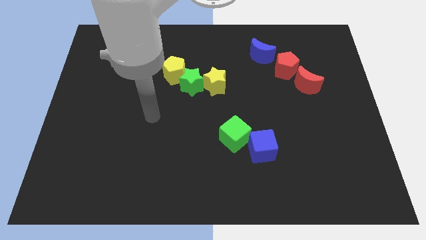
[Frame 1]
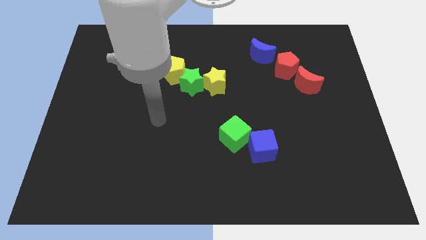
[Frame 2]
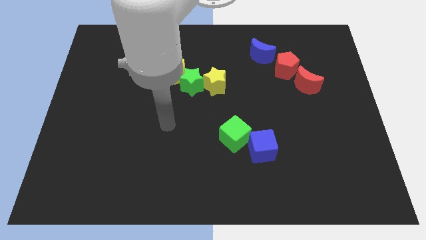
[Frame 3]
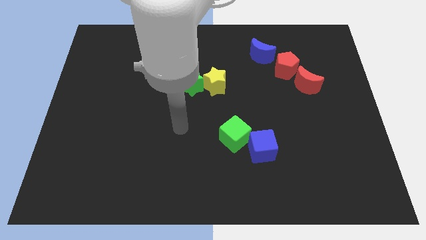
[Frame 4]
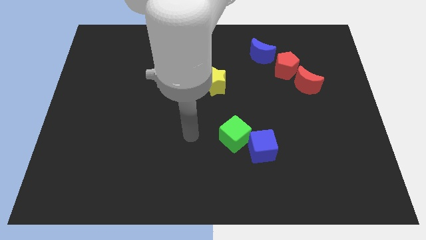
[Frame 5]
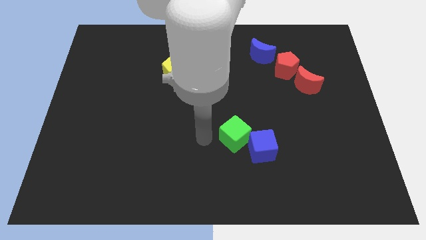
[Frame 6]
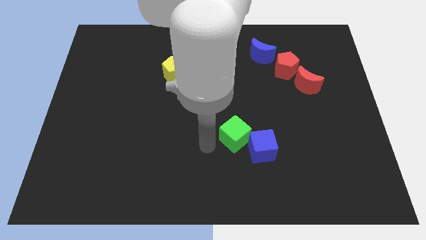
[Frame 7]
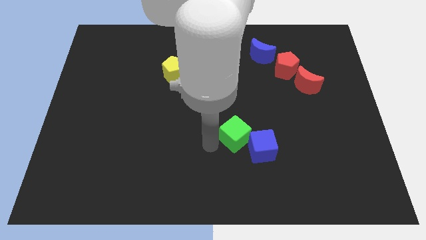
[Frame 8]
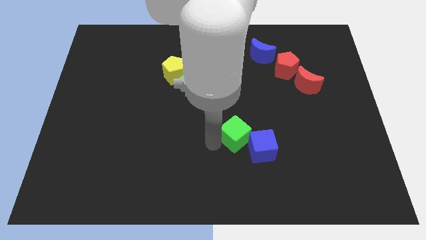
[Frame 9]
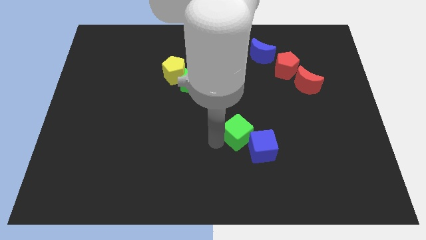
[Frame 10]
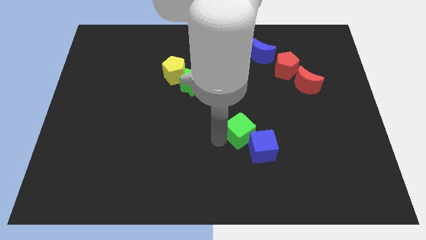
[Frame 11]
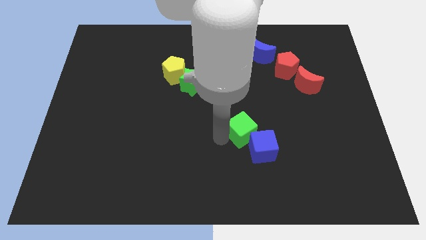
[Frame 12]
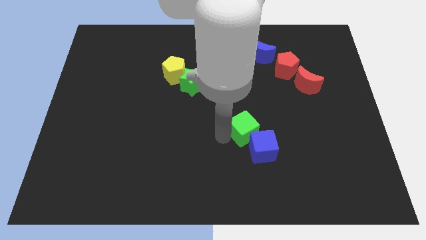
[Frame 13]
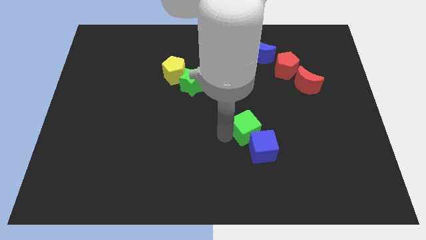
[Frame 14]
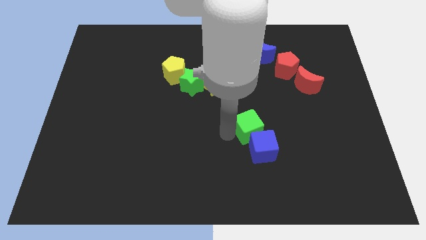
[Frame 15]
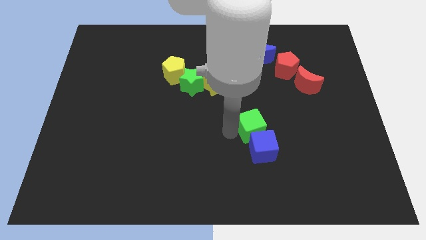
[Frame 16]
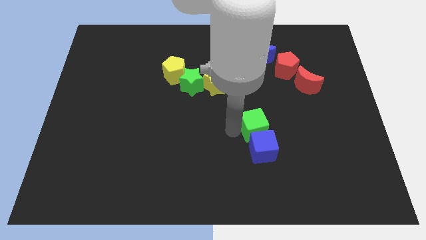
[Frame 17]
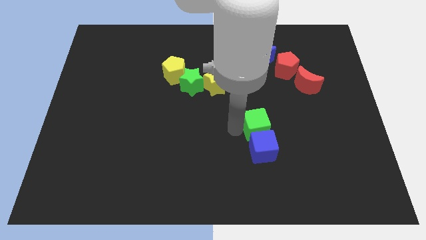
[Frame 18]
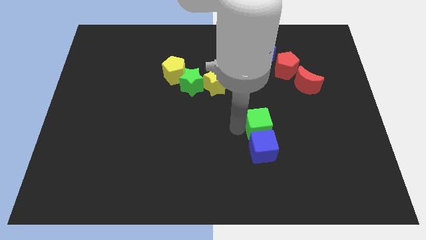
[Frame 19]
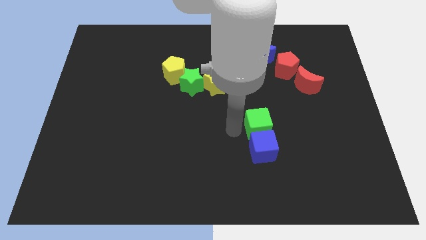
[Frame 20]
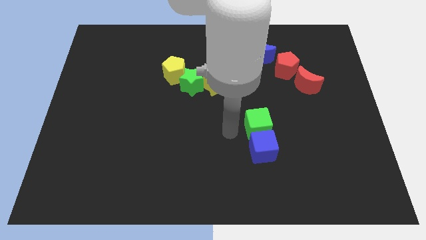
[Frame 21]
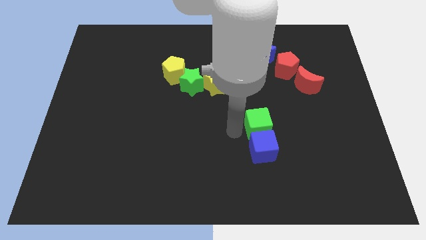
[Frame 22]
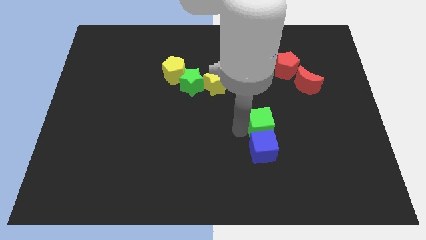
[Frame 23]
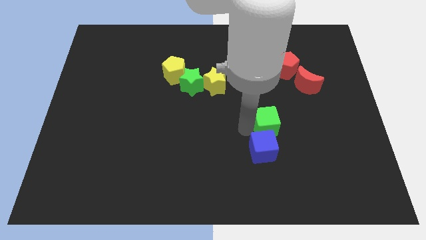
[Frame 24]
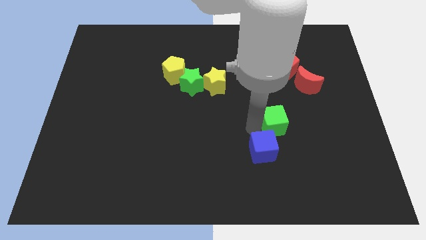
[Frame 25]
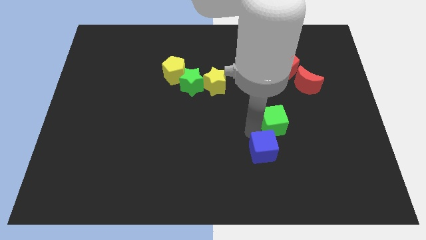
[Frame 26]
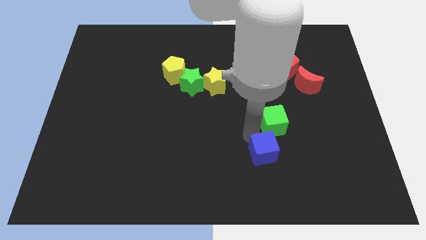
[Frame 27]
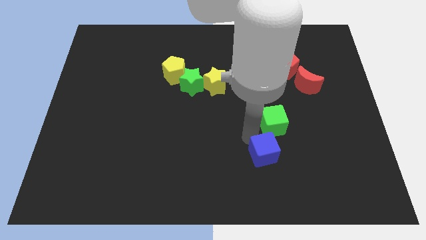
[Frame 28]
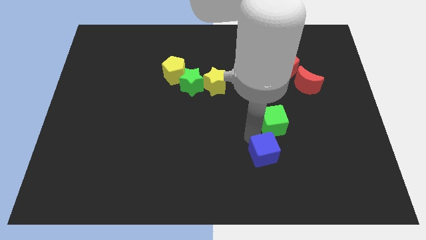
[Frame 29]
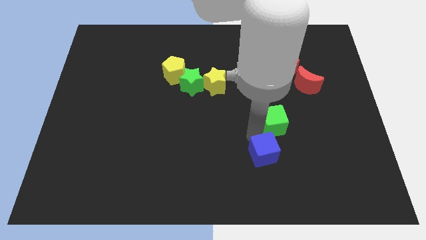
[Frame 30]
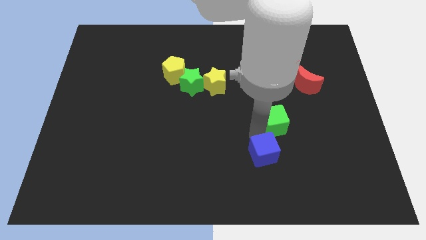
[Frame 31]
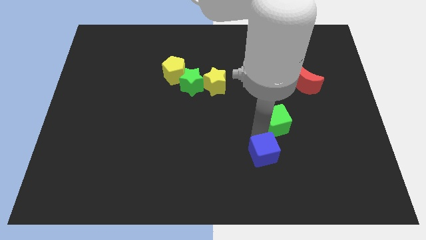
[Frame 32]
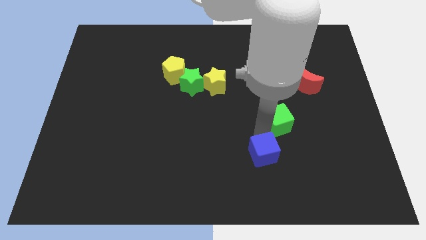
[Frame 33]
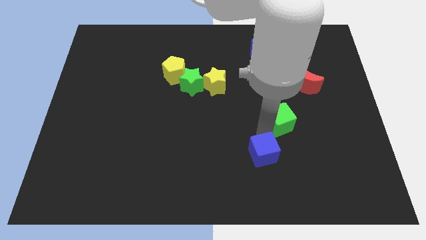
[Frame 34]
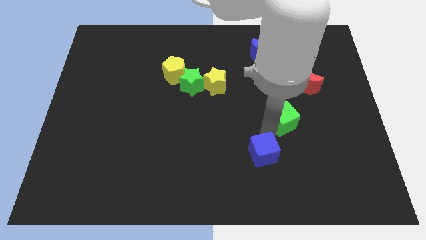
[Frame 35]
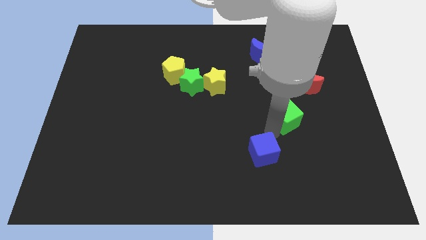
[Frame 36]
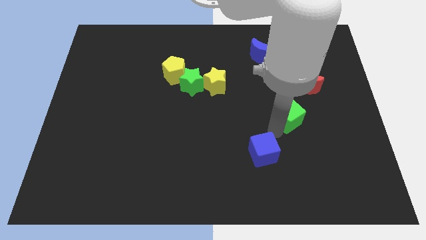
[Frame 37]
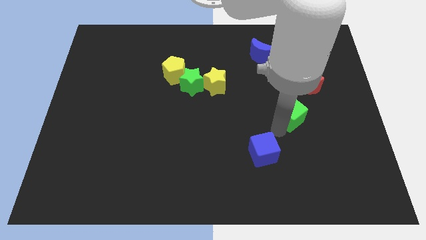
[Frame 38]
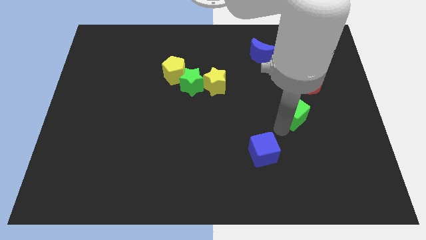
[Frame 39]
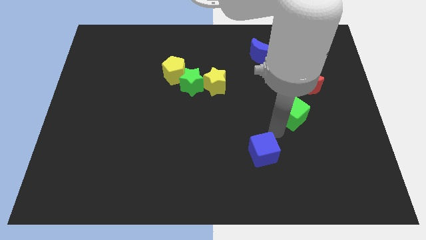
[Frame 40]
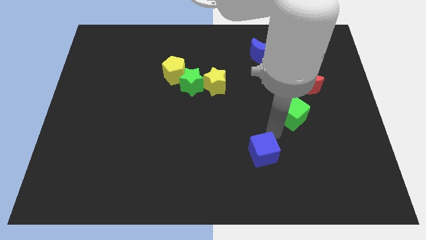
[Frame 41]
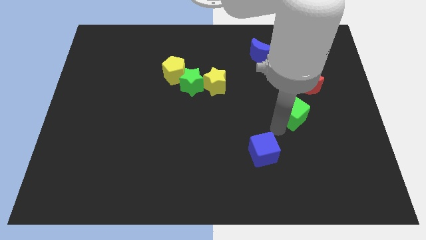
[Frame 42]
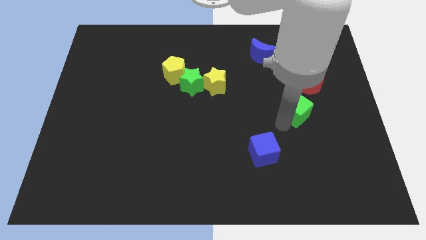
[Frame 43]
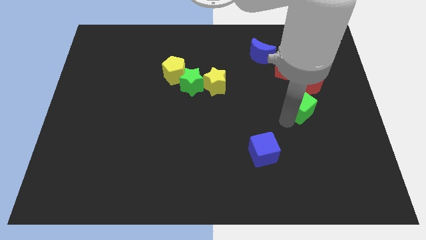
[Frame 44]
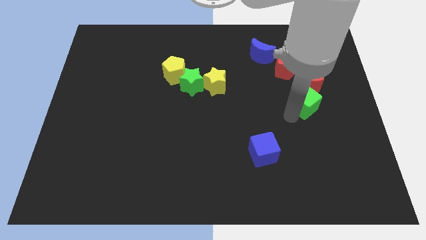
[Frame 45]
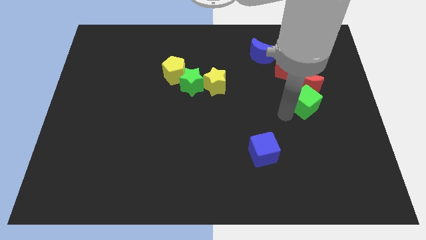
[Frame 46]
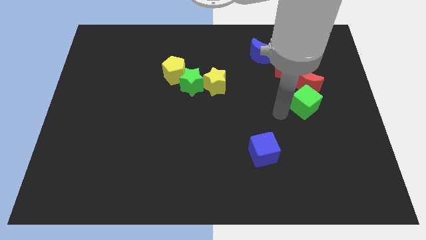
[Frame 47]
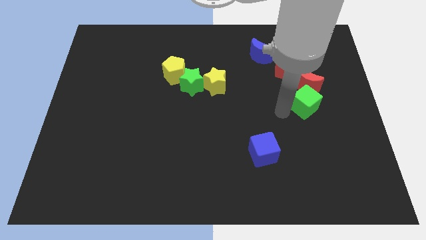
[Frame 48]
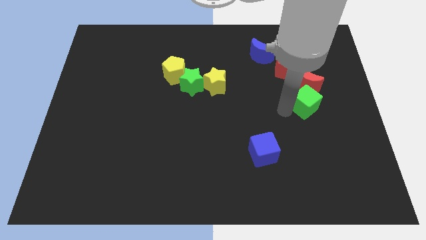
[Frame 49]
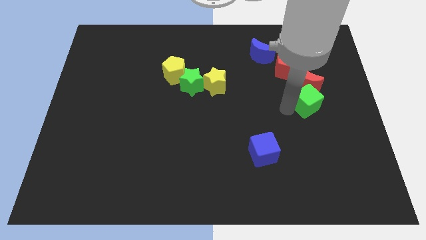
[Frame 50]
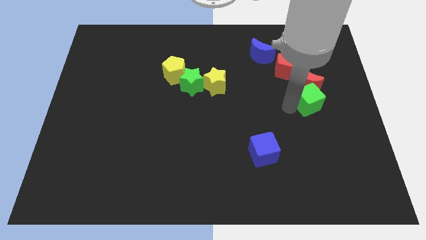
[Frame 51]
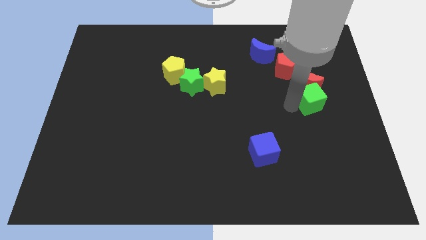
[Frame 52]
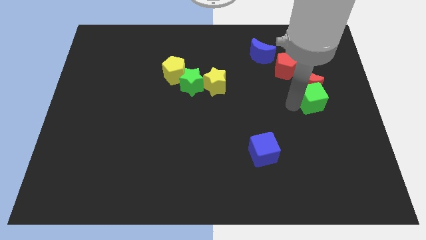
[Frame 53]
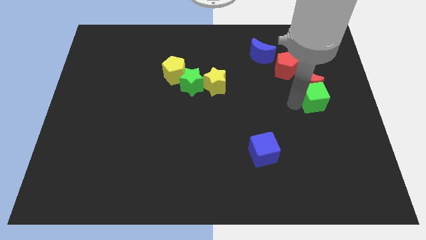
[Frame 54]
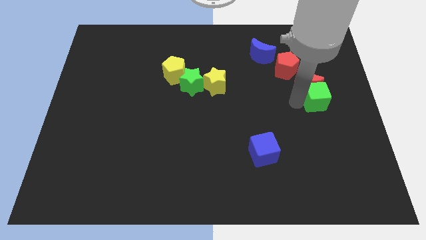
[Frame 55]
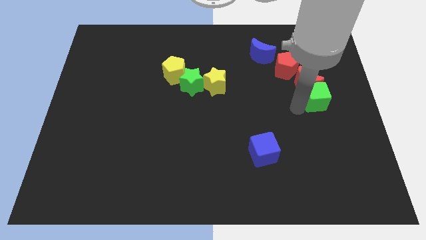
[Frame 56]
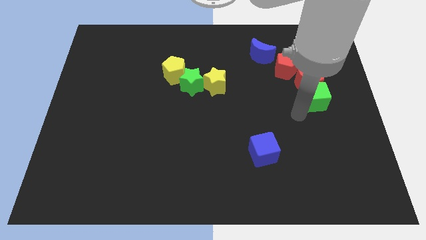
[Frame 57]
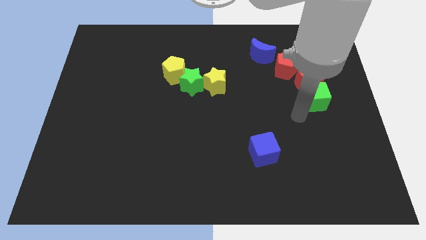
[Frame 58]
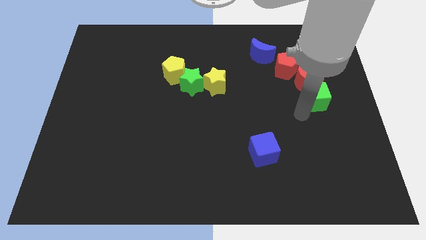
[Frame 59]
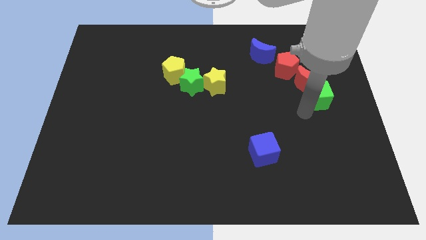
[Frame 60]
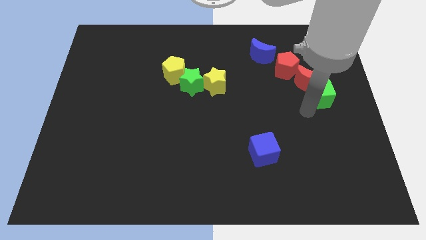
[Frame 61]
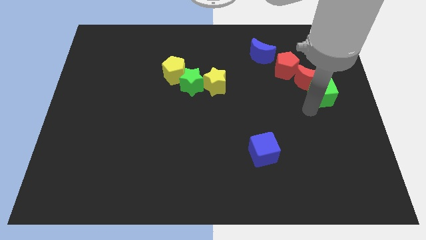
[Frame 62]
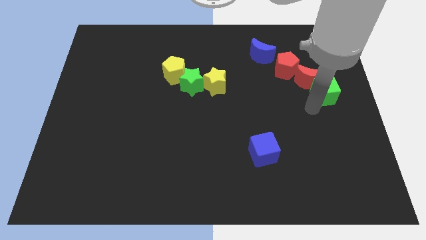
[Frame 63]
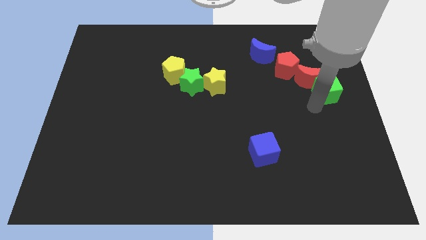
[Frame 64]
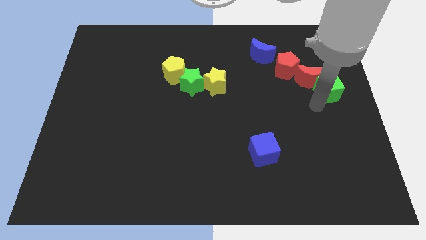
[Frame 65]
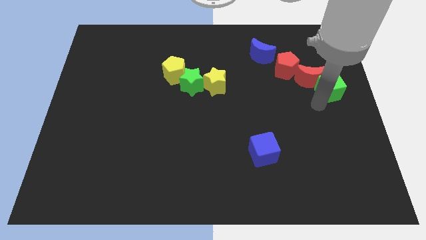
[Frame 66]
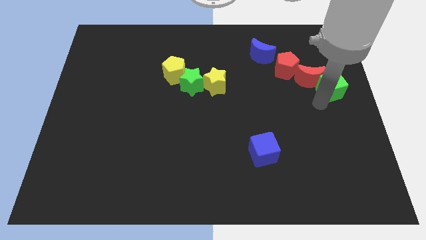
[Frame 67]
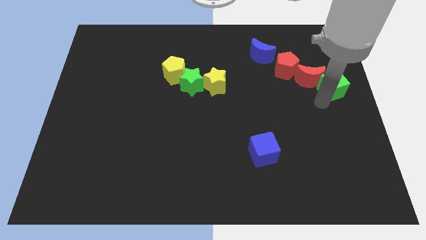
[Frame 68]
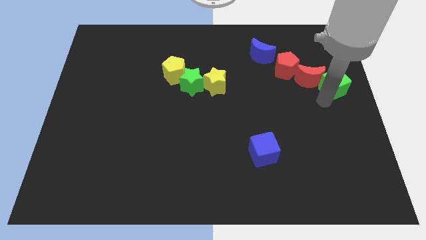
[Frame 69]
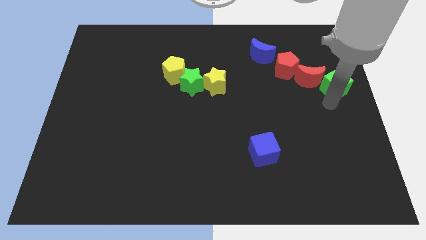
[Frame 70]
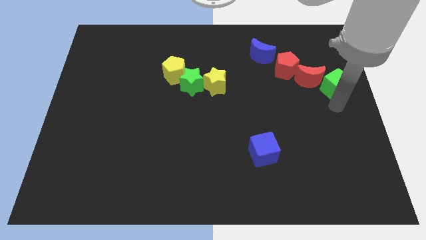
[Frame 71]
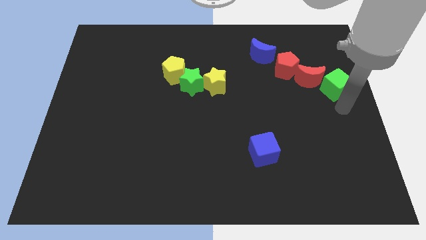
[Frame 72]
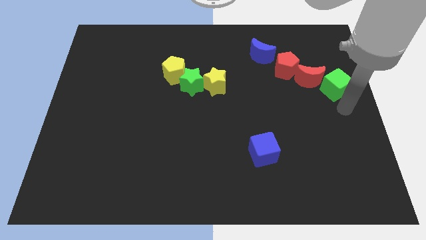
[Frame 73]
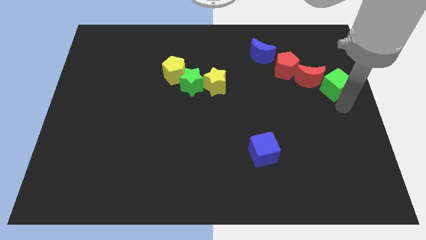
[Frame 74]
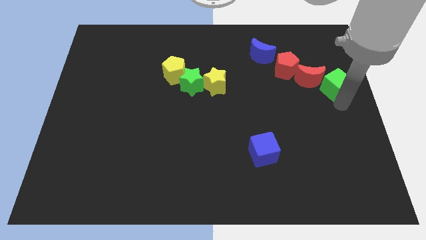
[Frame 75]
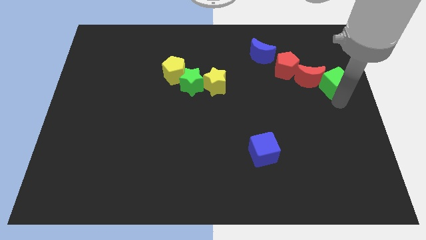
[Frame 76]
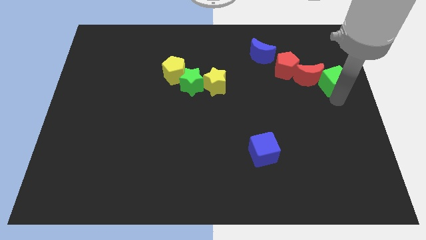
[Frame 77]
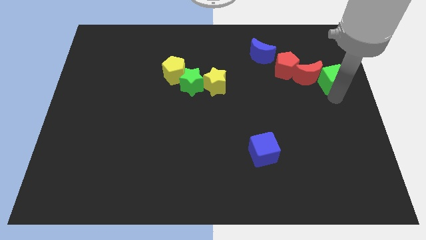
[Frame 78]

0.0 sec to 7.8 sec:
move the green cube just right of the red pentagon
